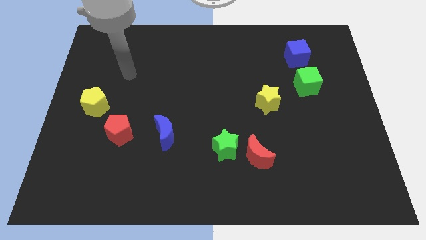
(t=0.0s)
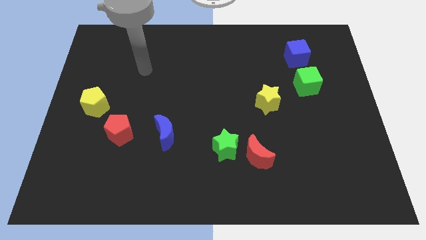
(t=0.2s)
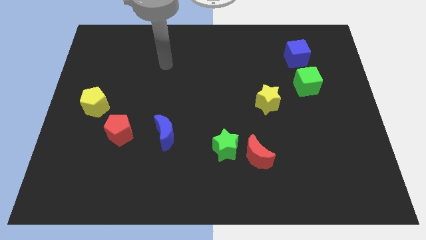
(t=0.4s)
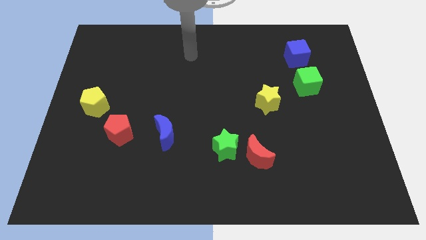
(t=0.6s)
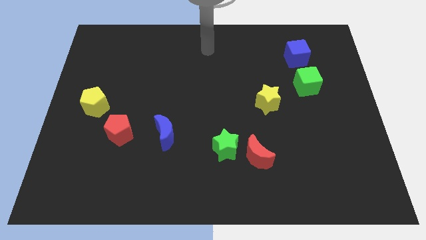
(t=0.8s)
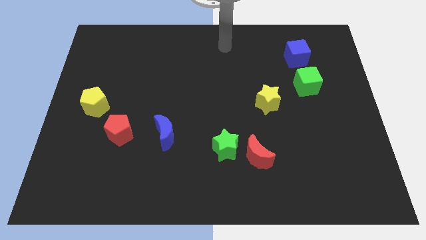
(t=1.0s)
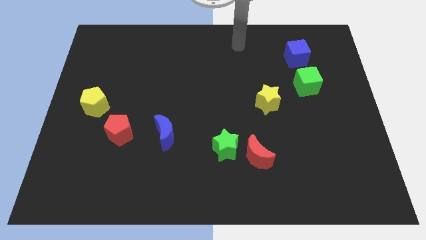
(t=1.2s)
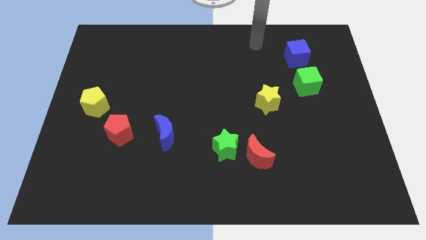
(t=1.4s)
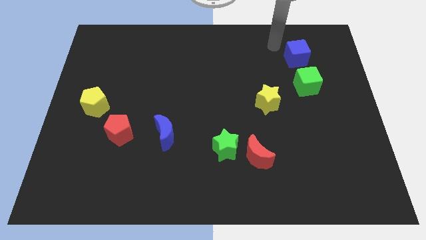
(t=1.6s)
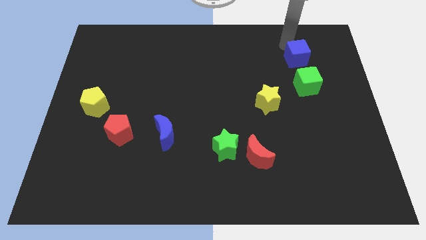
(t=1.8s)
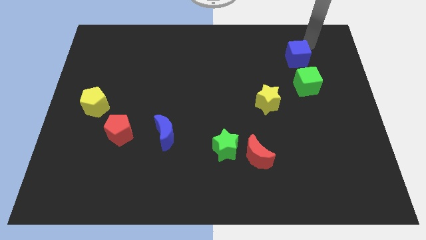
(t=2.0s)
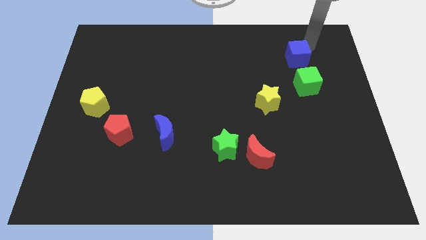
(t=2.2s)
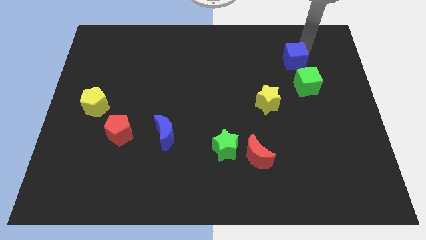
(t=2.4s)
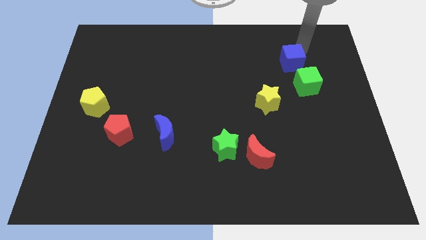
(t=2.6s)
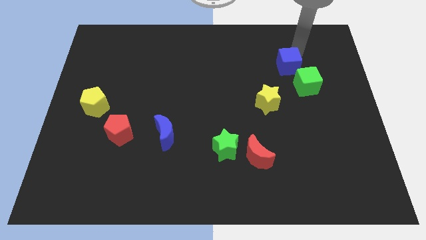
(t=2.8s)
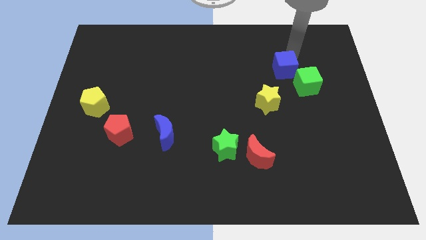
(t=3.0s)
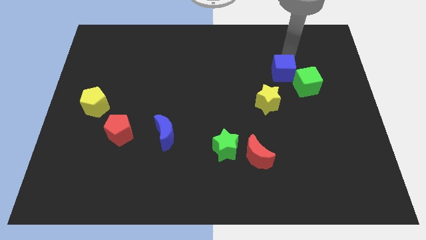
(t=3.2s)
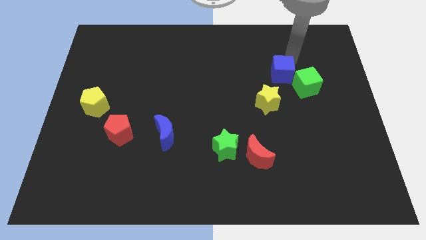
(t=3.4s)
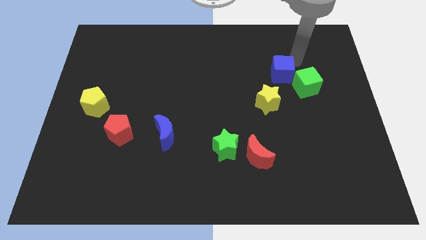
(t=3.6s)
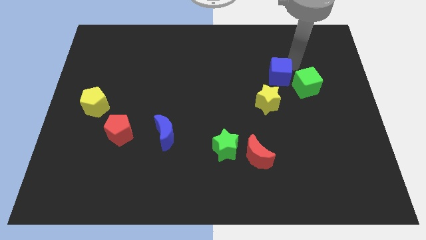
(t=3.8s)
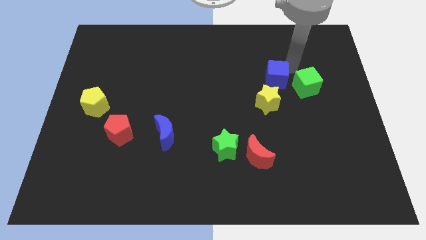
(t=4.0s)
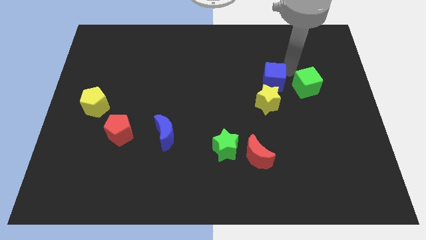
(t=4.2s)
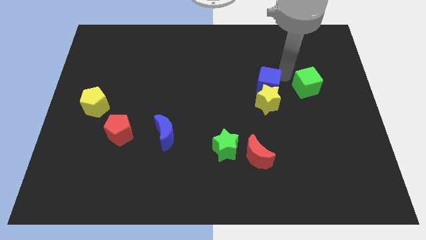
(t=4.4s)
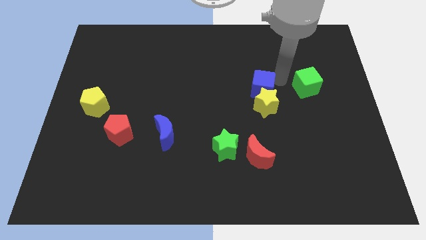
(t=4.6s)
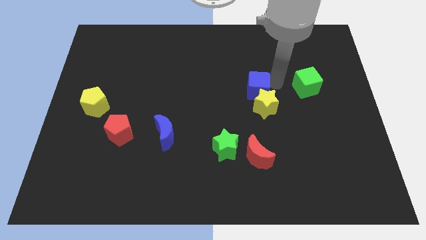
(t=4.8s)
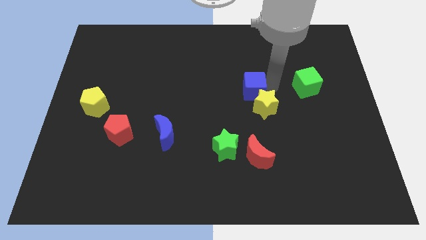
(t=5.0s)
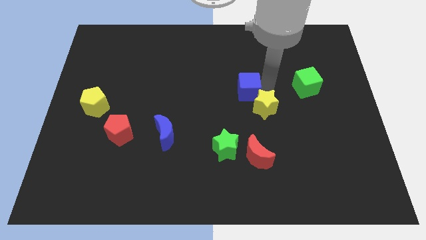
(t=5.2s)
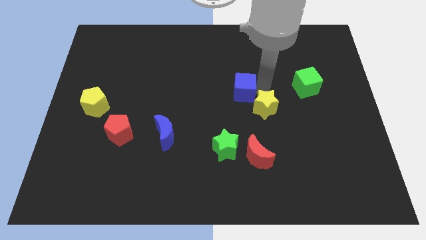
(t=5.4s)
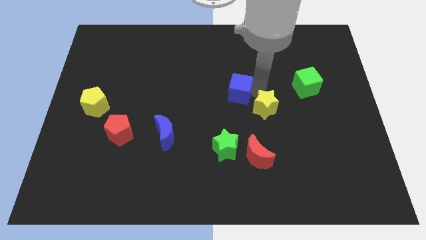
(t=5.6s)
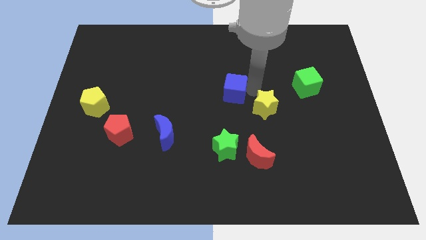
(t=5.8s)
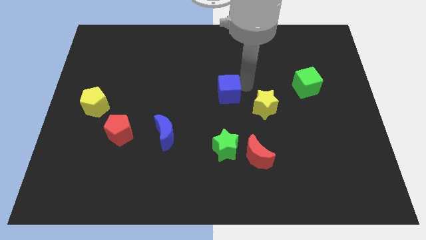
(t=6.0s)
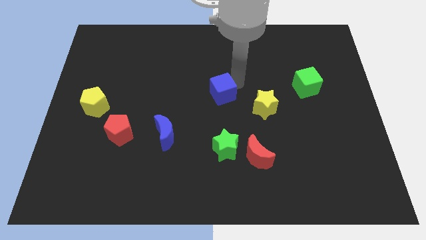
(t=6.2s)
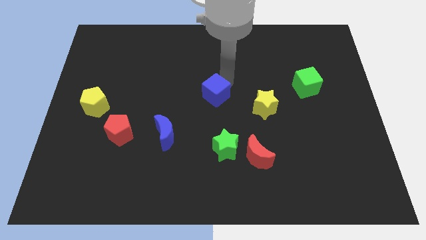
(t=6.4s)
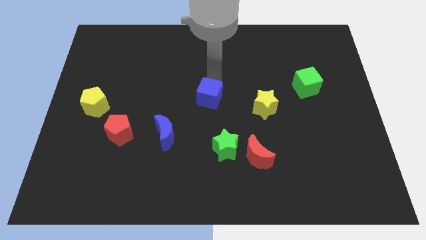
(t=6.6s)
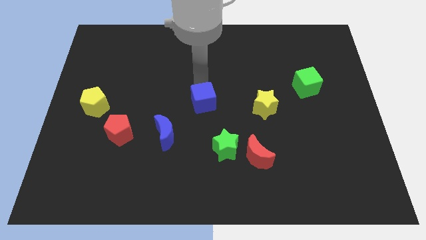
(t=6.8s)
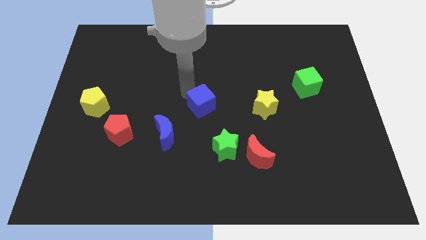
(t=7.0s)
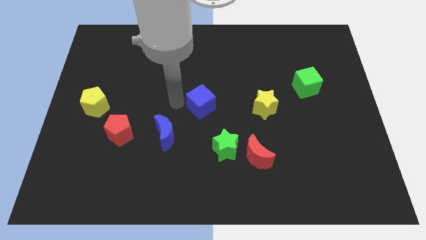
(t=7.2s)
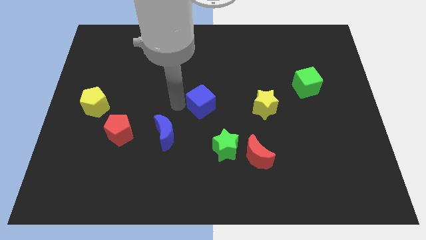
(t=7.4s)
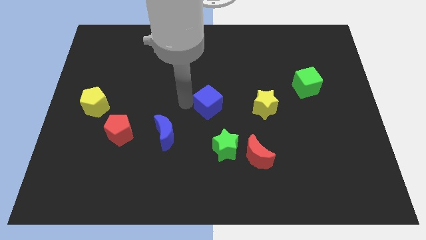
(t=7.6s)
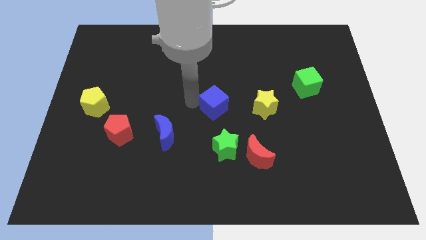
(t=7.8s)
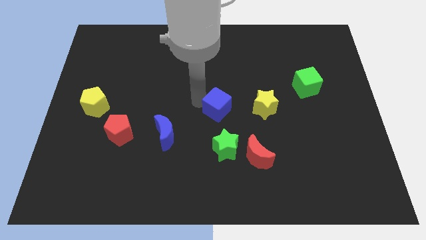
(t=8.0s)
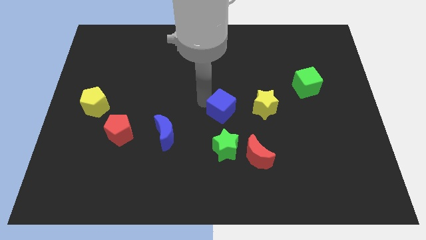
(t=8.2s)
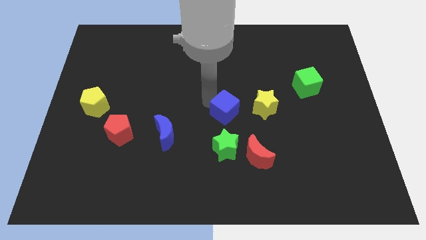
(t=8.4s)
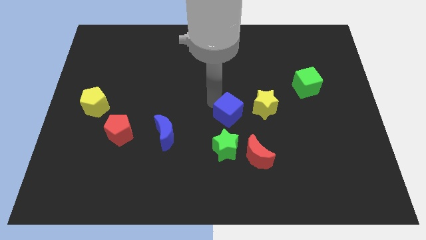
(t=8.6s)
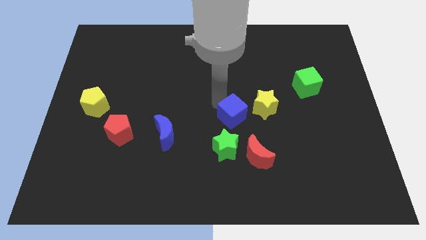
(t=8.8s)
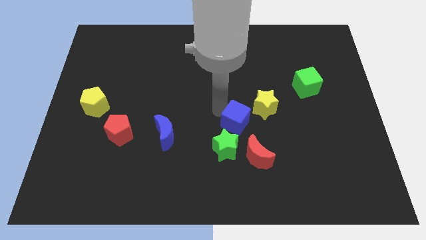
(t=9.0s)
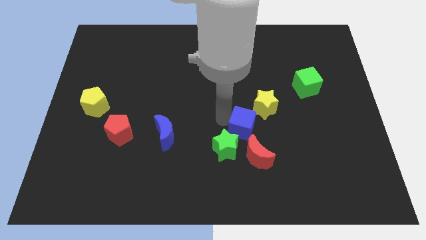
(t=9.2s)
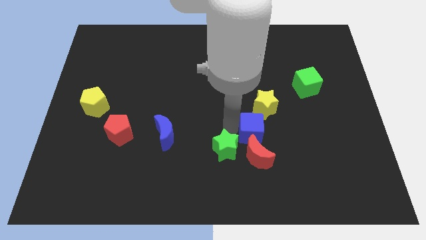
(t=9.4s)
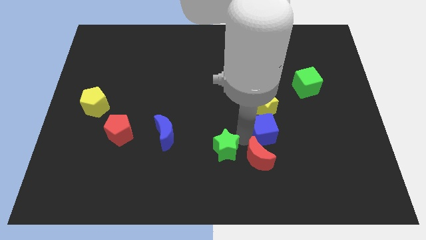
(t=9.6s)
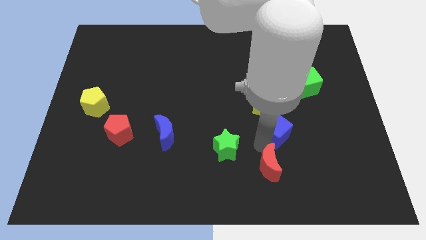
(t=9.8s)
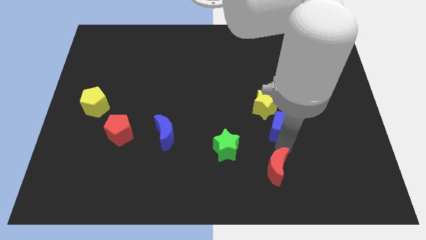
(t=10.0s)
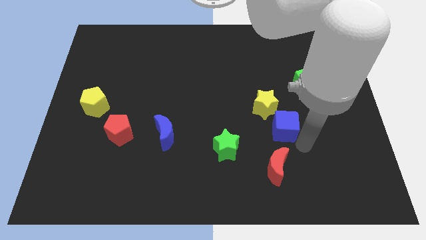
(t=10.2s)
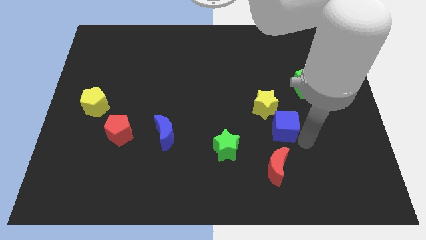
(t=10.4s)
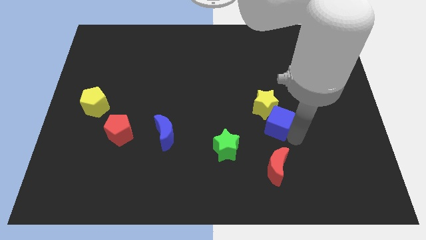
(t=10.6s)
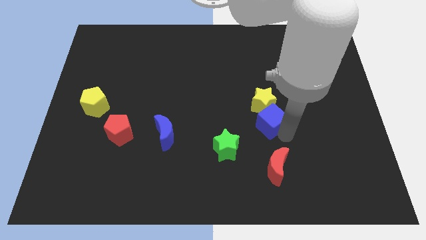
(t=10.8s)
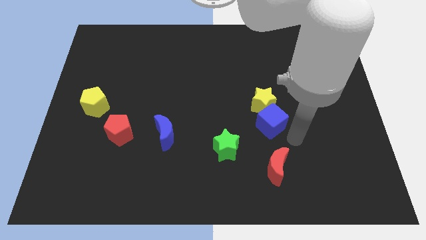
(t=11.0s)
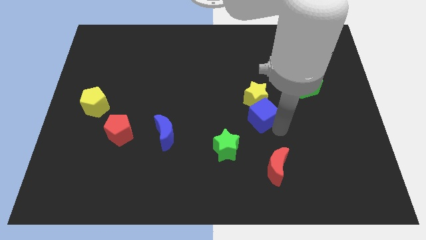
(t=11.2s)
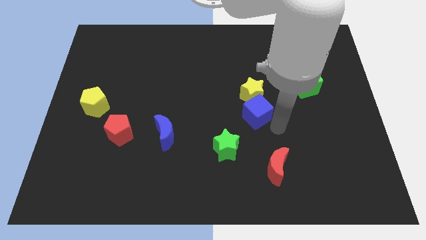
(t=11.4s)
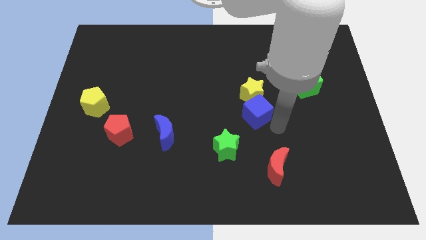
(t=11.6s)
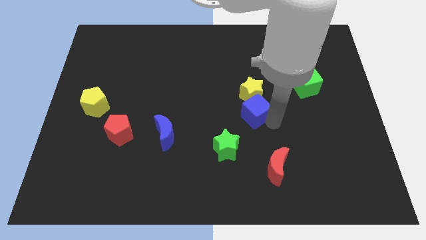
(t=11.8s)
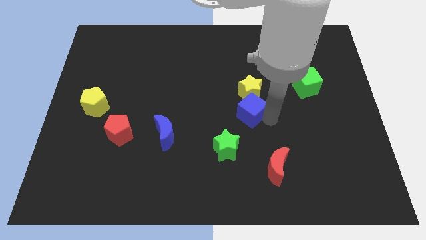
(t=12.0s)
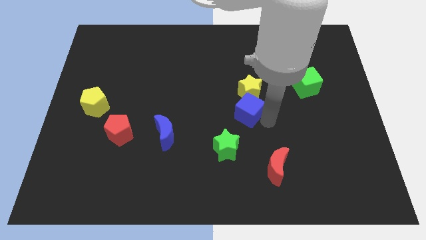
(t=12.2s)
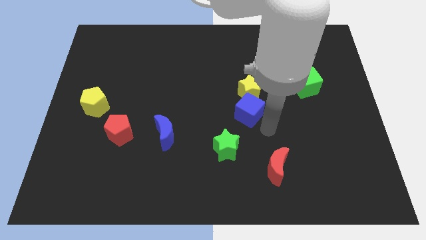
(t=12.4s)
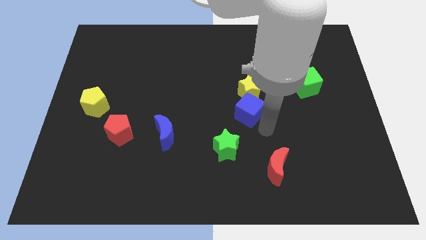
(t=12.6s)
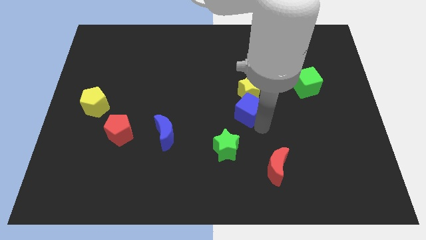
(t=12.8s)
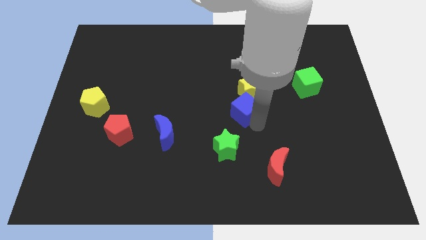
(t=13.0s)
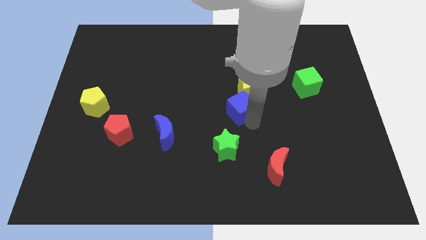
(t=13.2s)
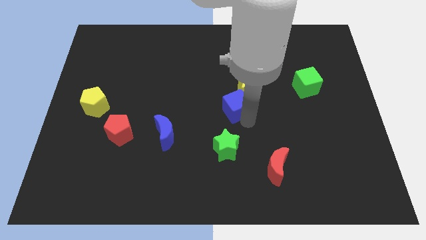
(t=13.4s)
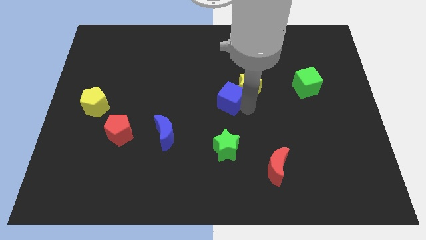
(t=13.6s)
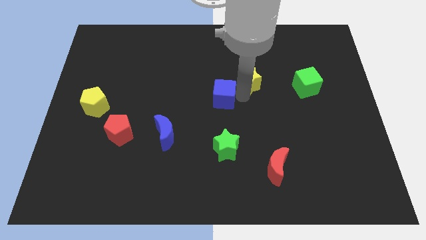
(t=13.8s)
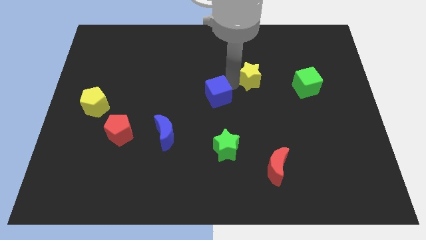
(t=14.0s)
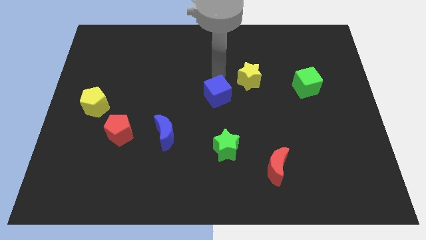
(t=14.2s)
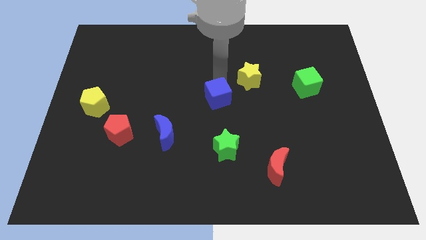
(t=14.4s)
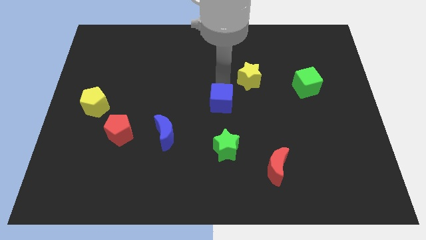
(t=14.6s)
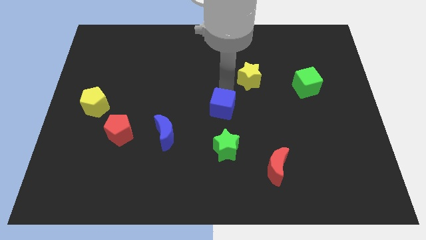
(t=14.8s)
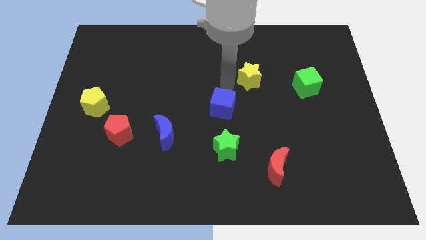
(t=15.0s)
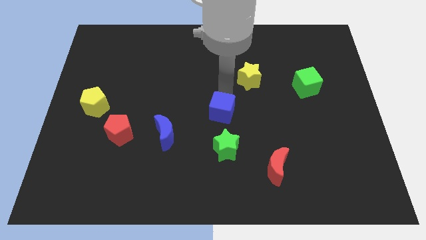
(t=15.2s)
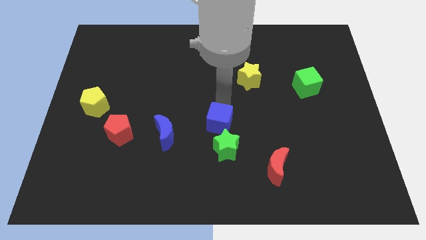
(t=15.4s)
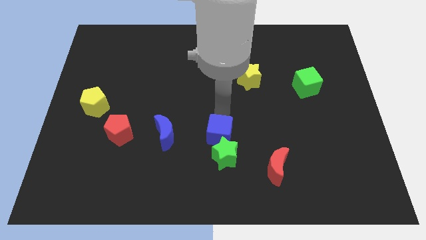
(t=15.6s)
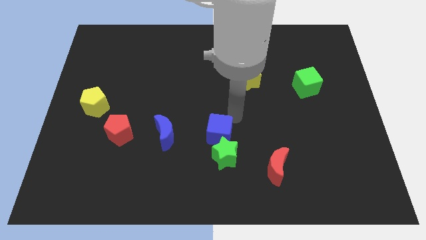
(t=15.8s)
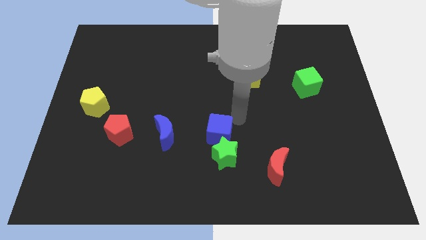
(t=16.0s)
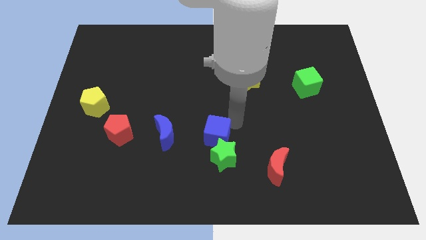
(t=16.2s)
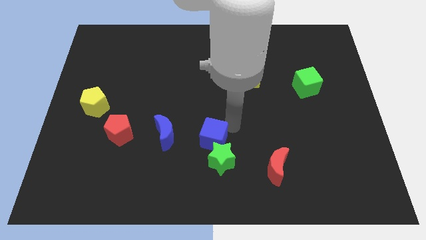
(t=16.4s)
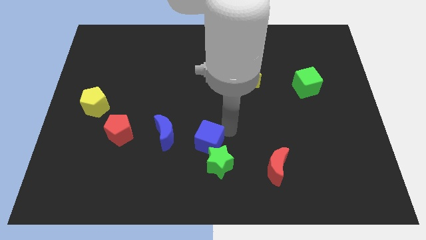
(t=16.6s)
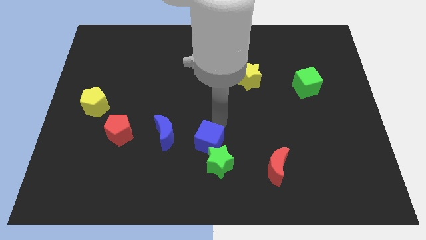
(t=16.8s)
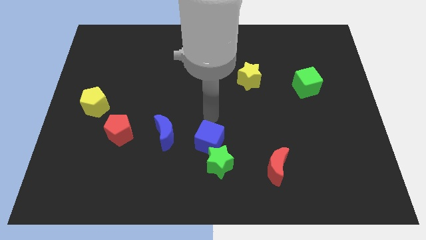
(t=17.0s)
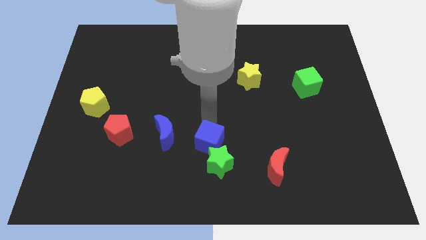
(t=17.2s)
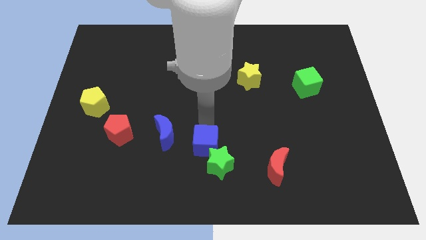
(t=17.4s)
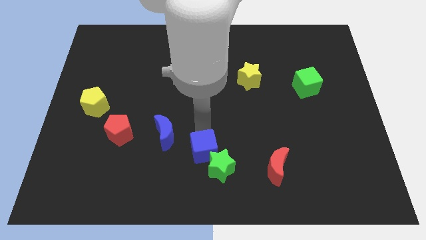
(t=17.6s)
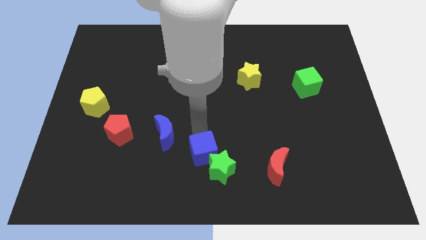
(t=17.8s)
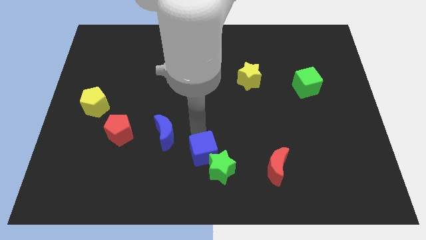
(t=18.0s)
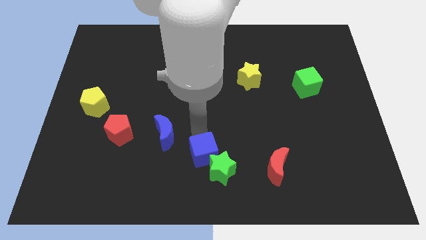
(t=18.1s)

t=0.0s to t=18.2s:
put the blue cube to the bottom
